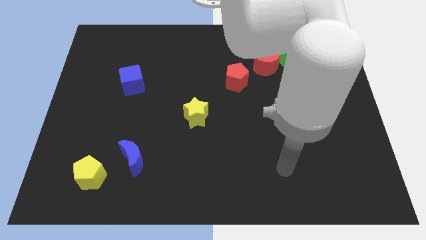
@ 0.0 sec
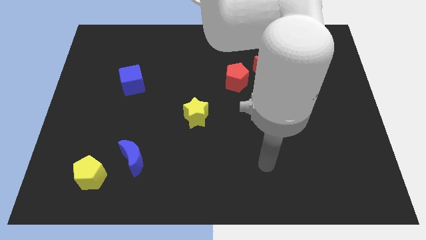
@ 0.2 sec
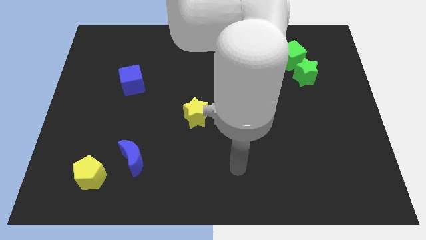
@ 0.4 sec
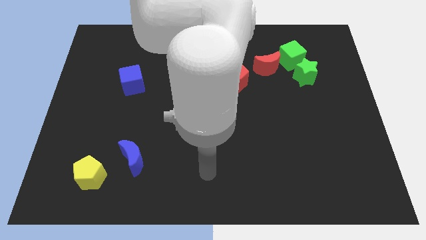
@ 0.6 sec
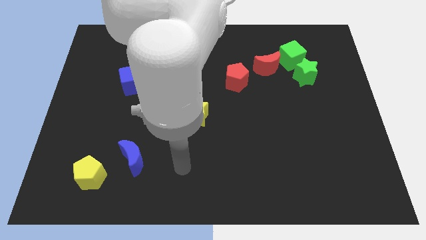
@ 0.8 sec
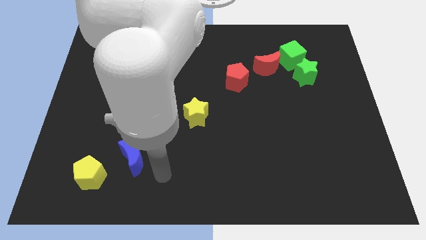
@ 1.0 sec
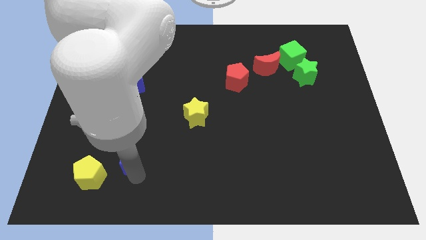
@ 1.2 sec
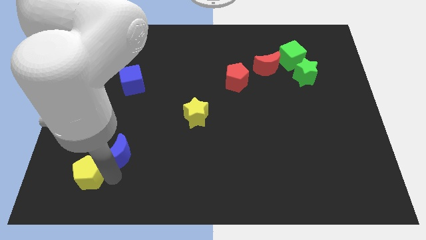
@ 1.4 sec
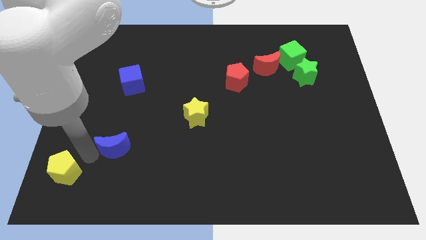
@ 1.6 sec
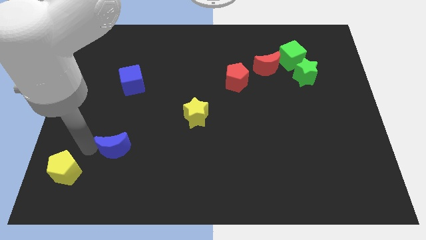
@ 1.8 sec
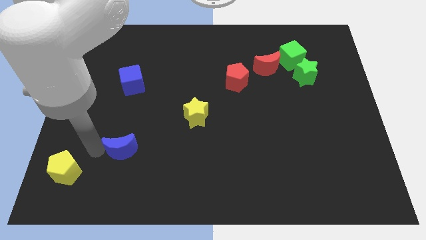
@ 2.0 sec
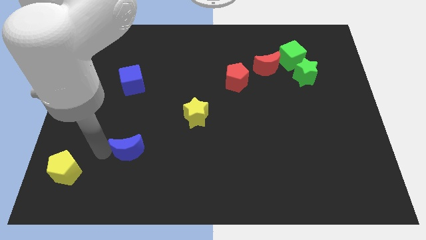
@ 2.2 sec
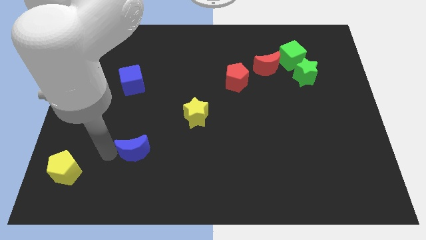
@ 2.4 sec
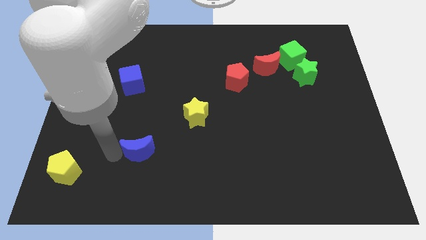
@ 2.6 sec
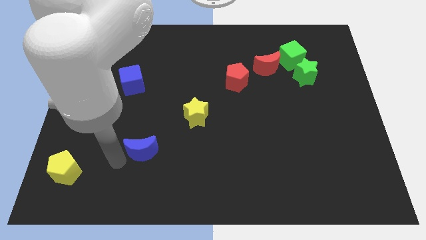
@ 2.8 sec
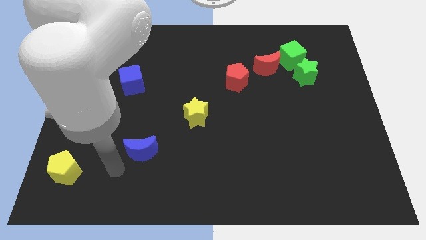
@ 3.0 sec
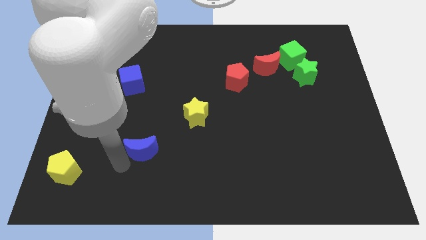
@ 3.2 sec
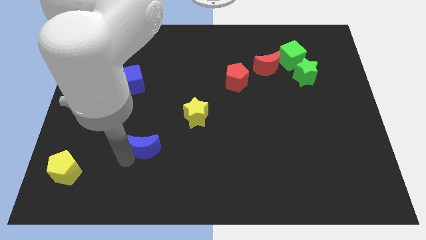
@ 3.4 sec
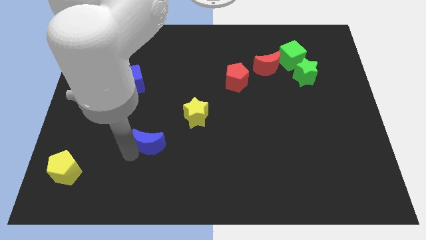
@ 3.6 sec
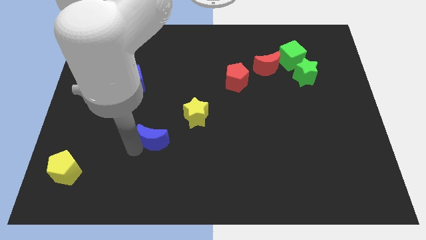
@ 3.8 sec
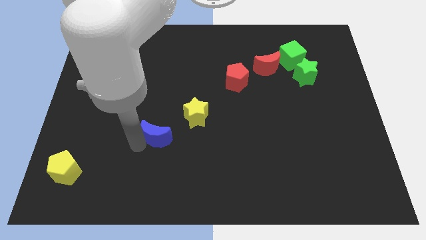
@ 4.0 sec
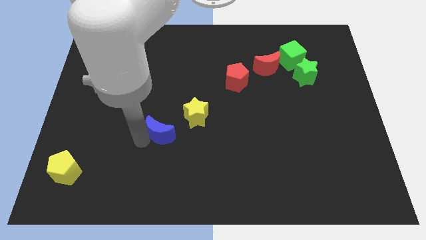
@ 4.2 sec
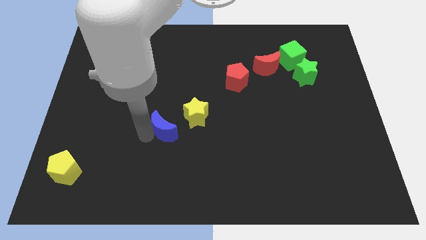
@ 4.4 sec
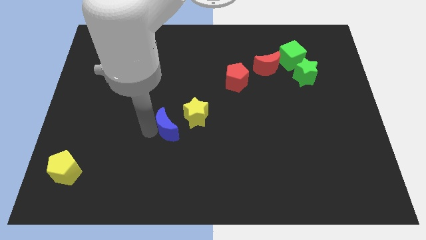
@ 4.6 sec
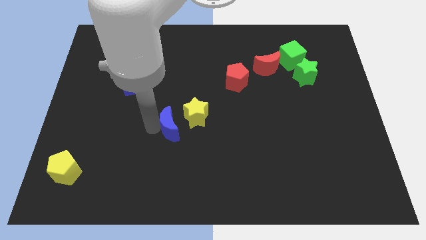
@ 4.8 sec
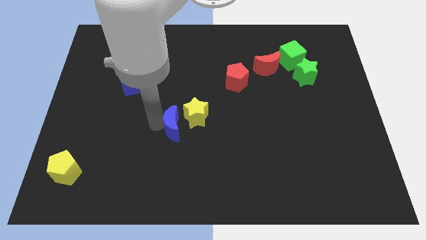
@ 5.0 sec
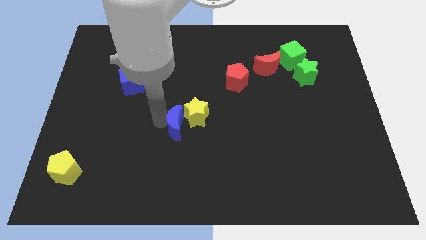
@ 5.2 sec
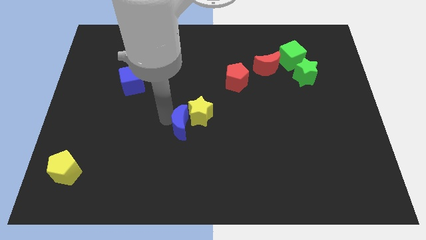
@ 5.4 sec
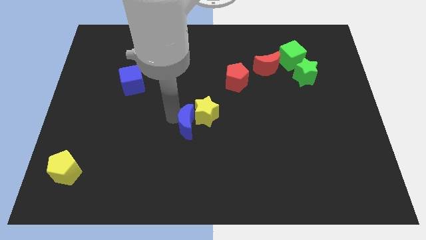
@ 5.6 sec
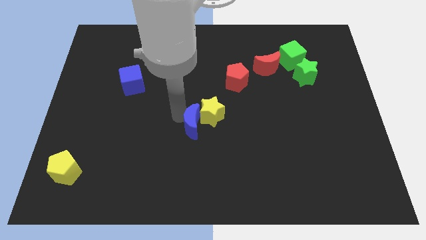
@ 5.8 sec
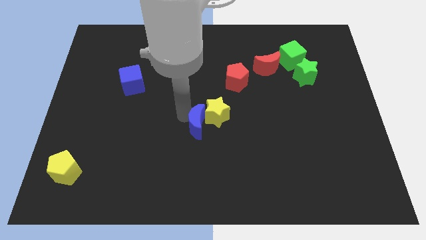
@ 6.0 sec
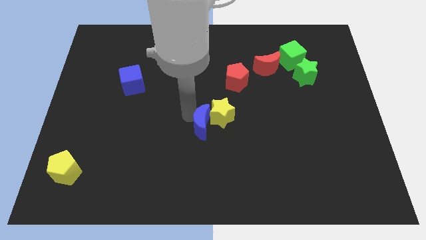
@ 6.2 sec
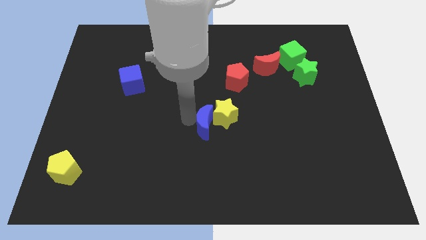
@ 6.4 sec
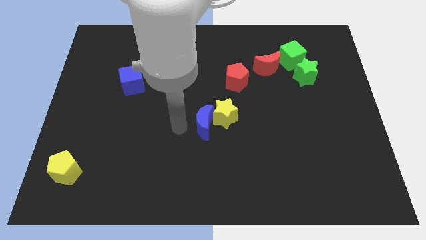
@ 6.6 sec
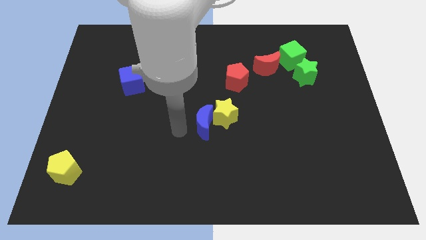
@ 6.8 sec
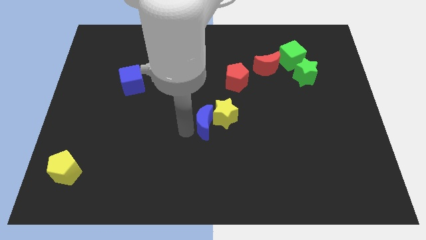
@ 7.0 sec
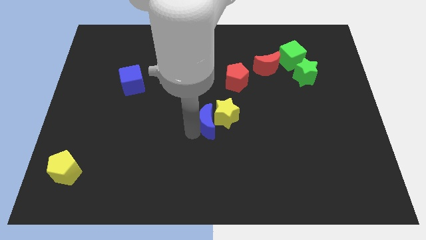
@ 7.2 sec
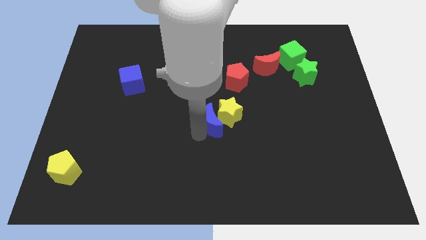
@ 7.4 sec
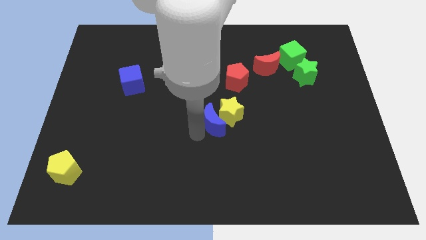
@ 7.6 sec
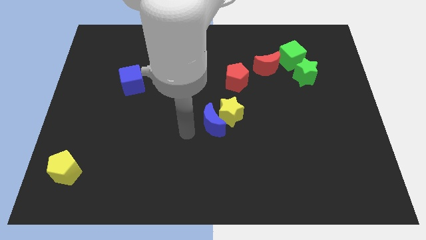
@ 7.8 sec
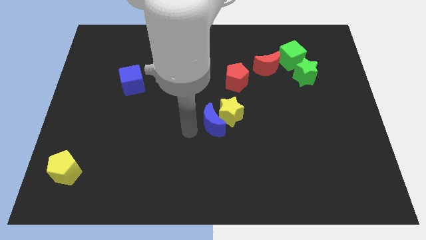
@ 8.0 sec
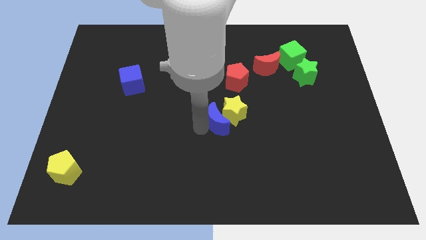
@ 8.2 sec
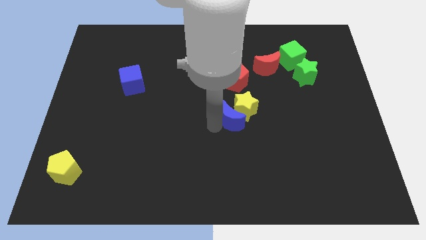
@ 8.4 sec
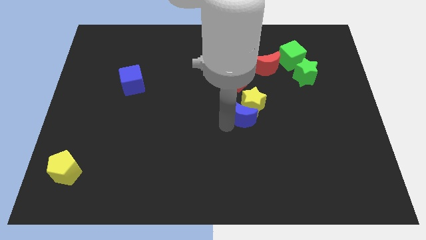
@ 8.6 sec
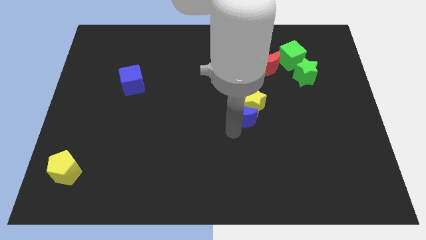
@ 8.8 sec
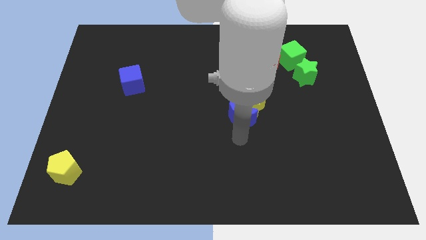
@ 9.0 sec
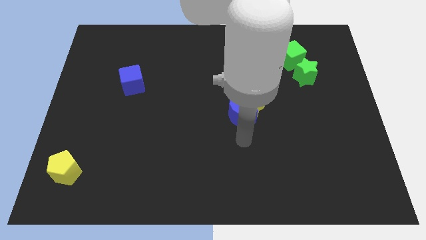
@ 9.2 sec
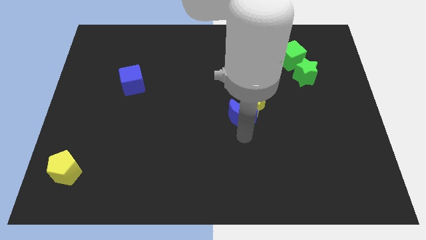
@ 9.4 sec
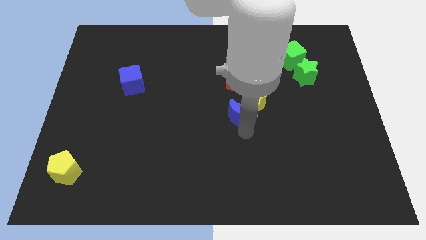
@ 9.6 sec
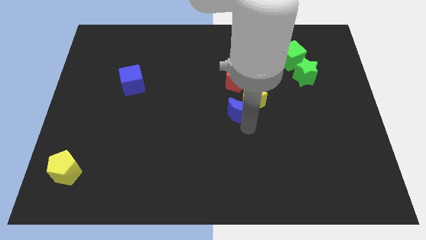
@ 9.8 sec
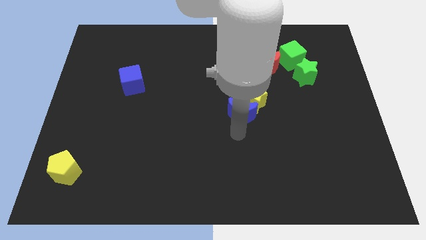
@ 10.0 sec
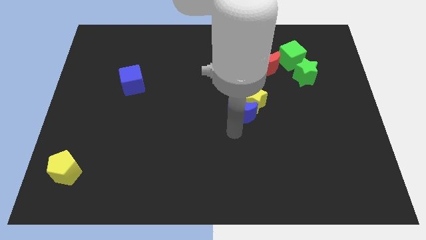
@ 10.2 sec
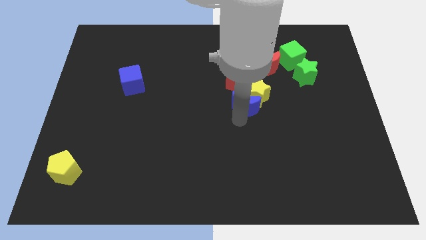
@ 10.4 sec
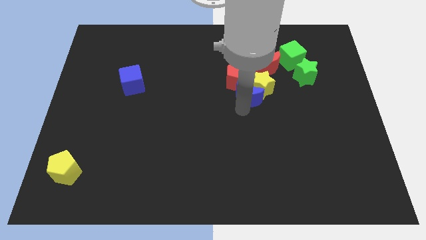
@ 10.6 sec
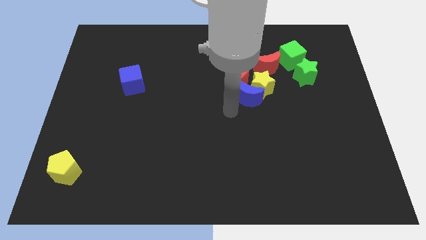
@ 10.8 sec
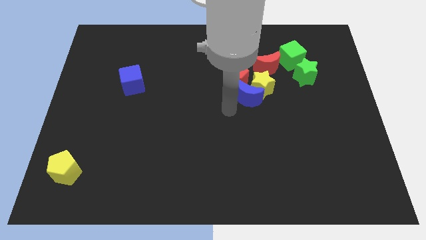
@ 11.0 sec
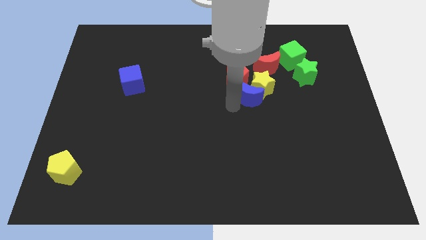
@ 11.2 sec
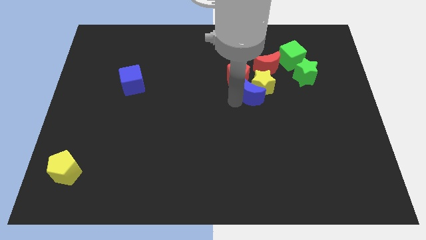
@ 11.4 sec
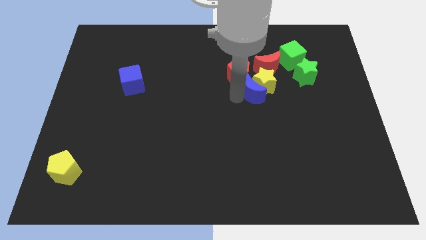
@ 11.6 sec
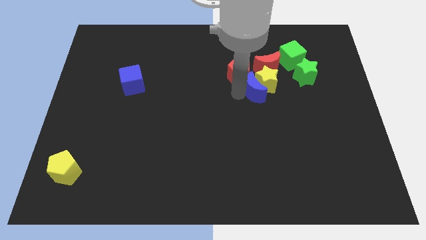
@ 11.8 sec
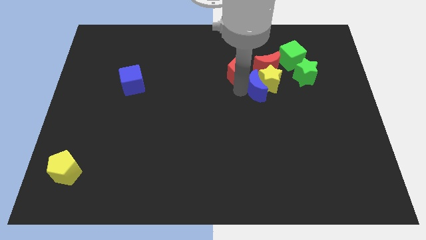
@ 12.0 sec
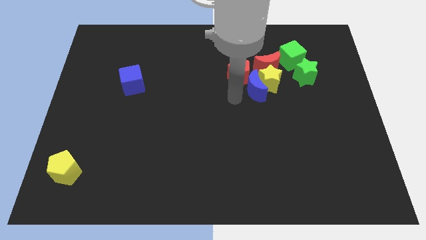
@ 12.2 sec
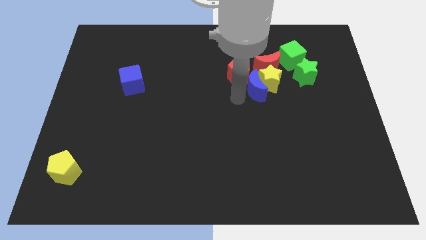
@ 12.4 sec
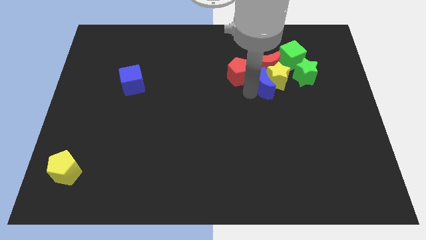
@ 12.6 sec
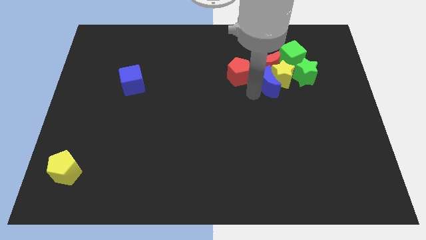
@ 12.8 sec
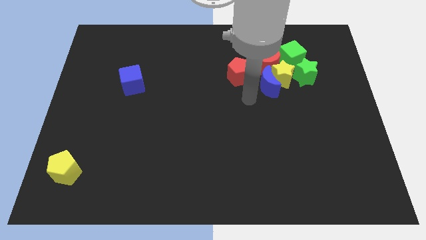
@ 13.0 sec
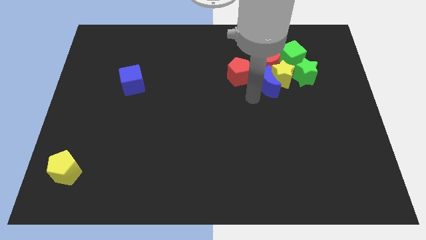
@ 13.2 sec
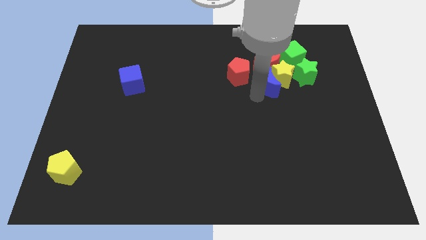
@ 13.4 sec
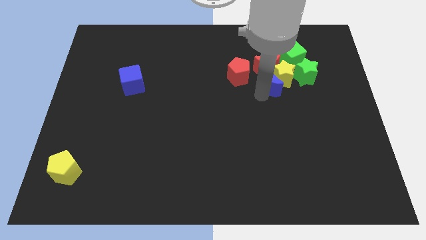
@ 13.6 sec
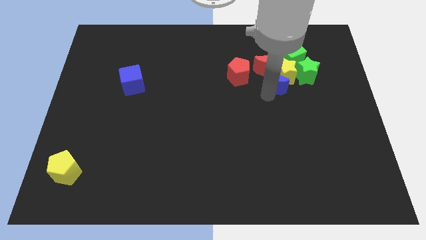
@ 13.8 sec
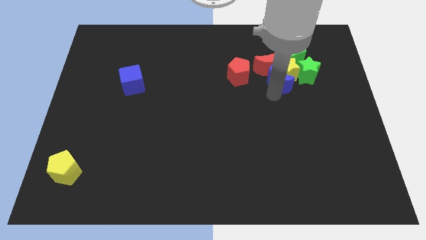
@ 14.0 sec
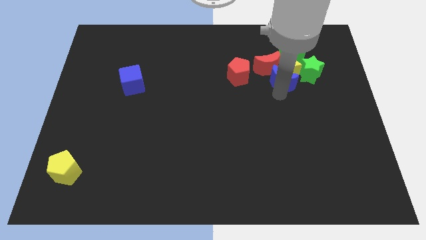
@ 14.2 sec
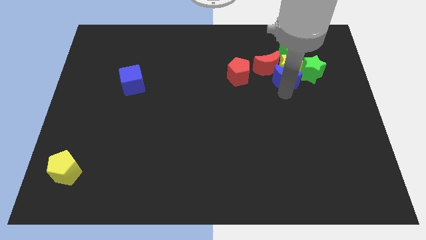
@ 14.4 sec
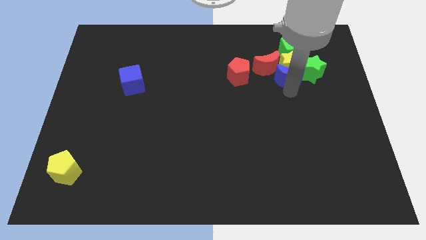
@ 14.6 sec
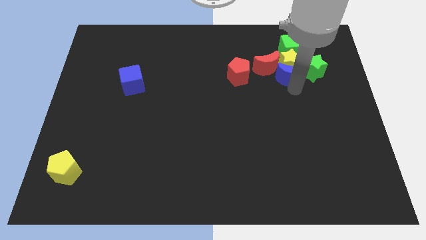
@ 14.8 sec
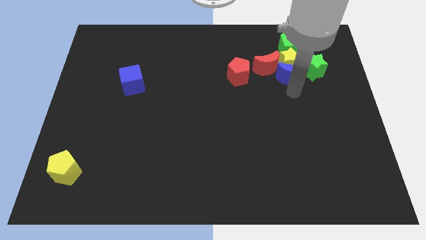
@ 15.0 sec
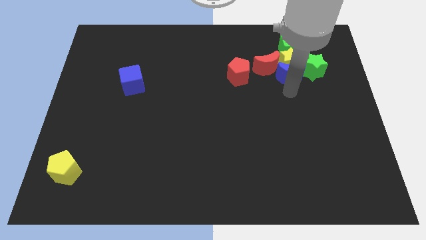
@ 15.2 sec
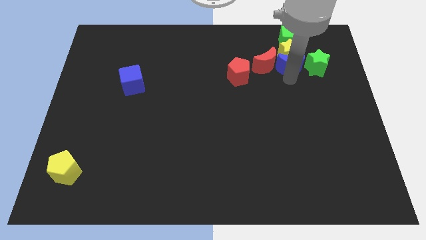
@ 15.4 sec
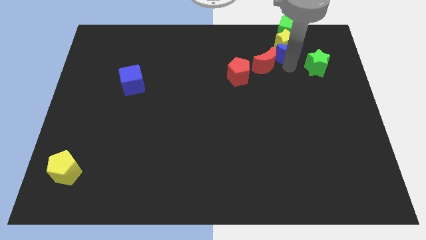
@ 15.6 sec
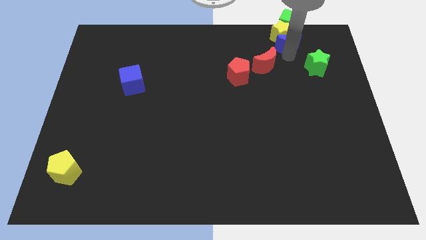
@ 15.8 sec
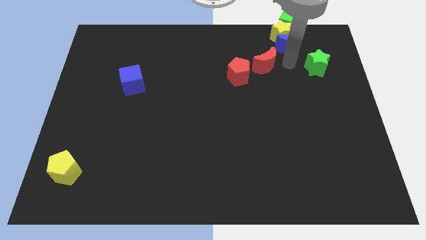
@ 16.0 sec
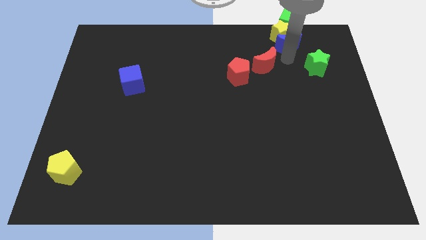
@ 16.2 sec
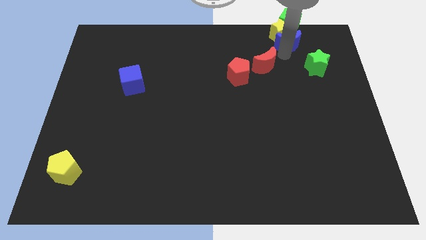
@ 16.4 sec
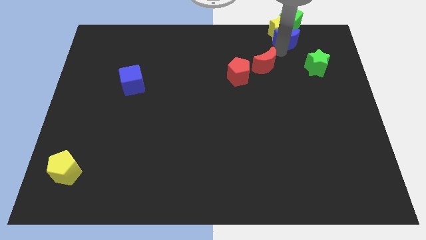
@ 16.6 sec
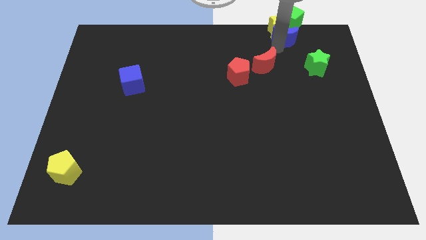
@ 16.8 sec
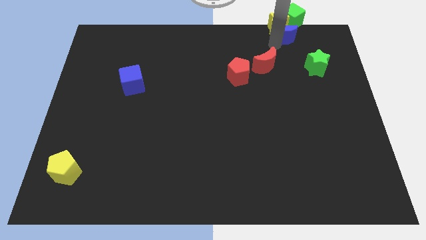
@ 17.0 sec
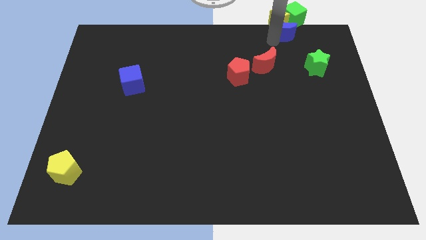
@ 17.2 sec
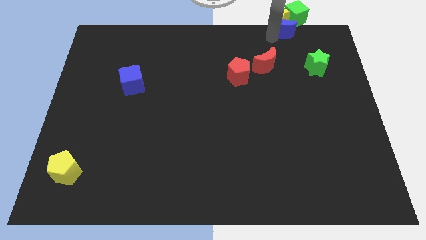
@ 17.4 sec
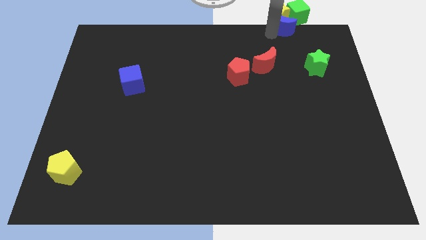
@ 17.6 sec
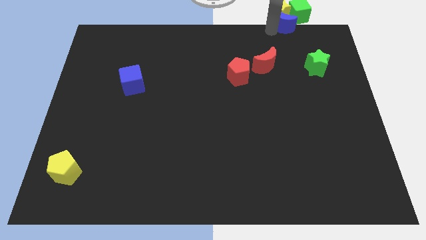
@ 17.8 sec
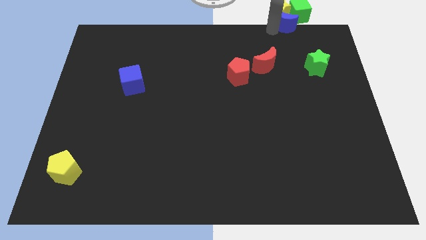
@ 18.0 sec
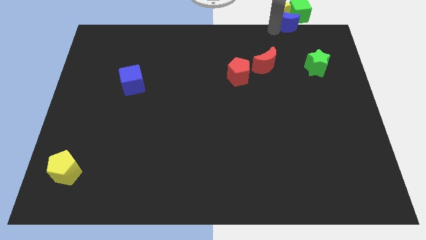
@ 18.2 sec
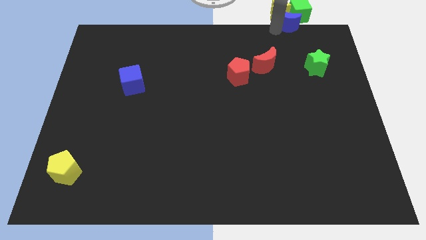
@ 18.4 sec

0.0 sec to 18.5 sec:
put the blue moon close to the green cube
